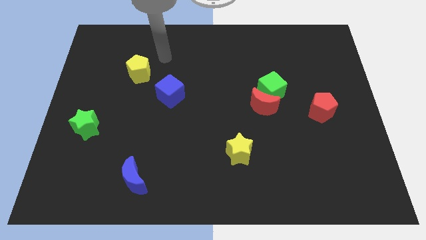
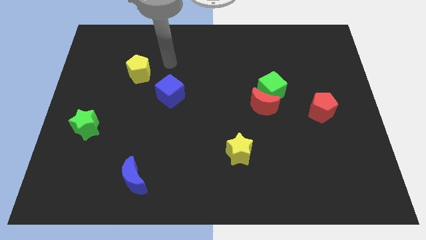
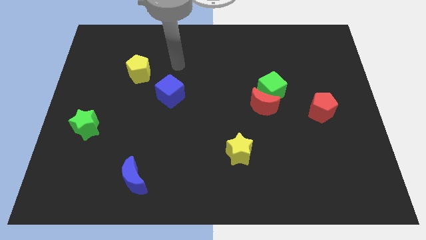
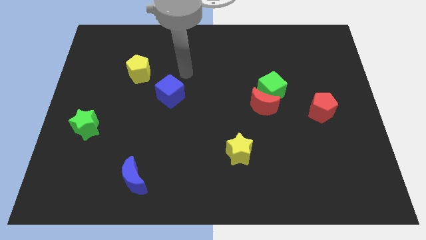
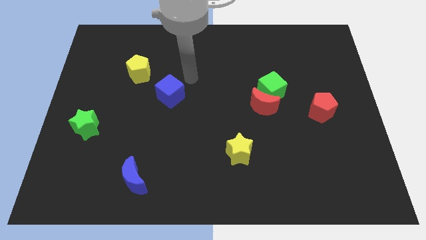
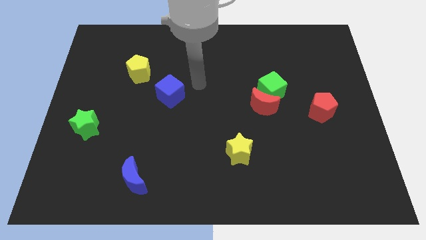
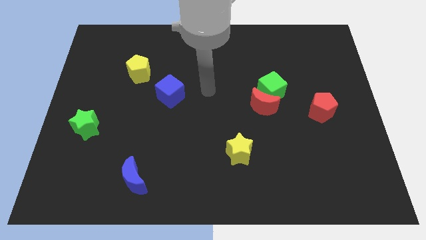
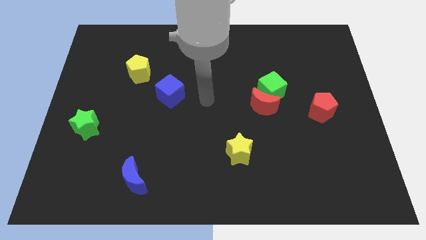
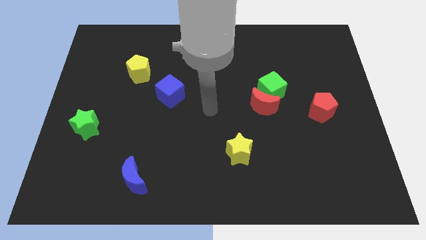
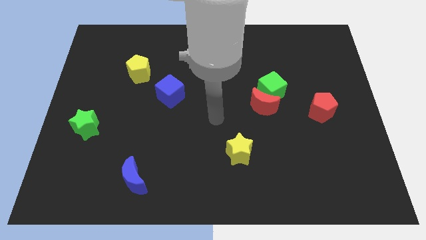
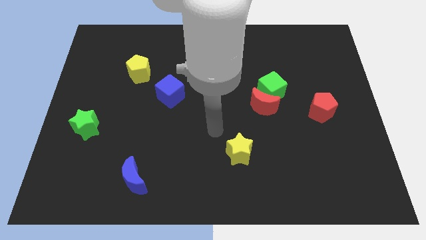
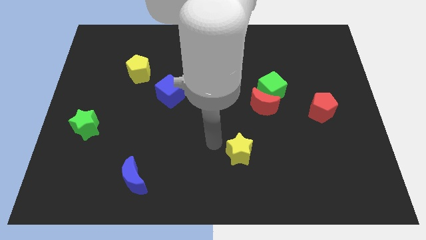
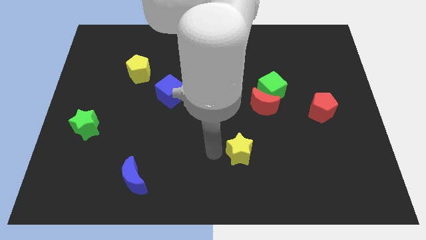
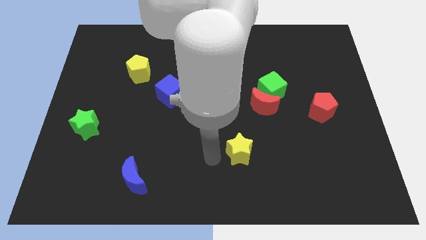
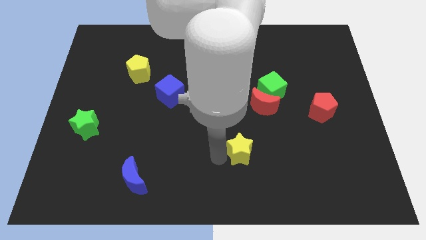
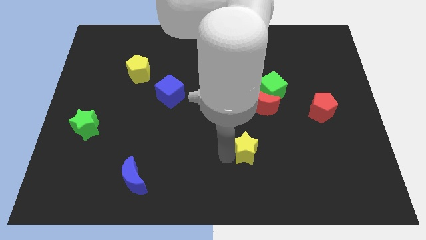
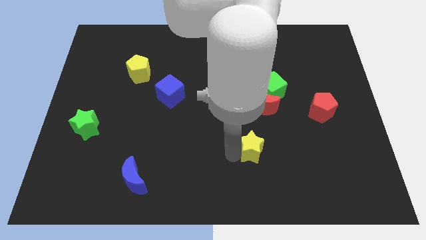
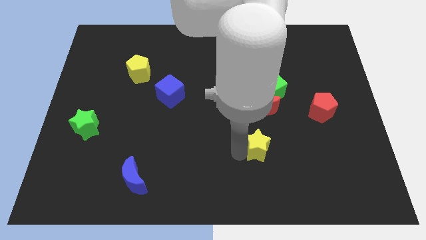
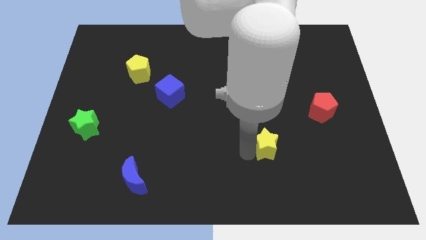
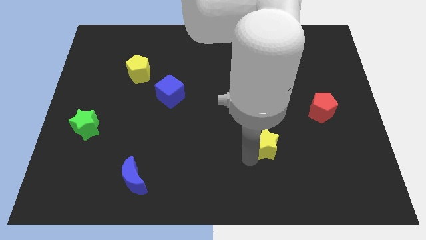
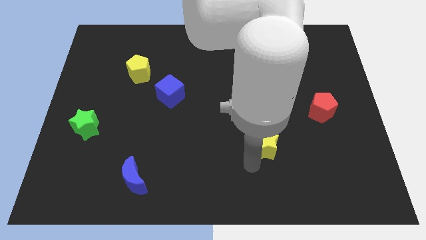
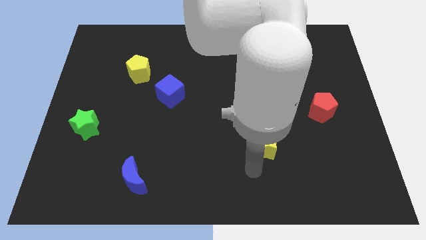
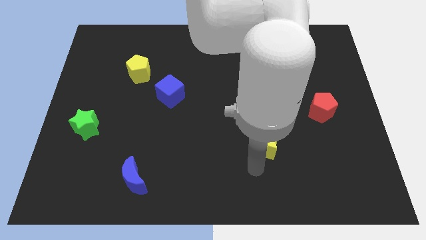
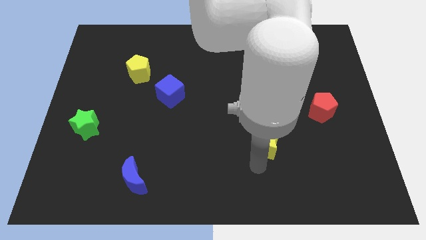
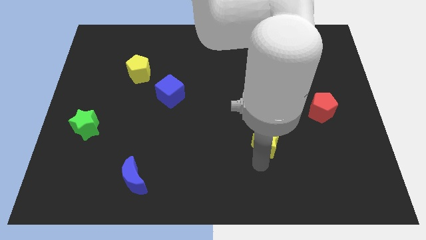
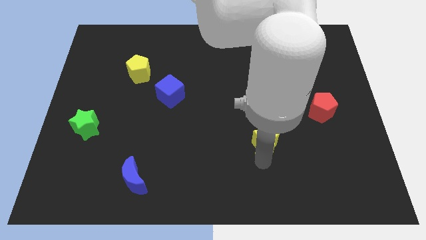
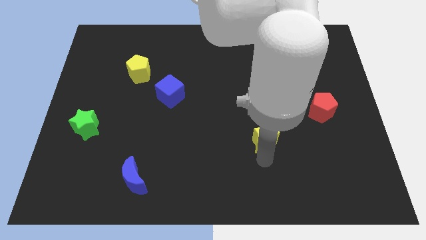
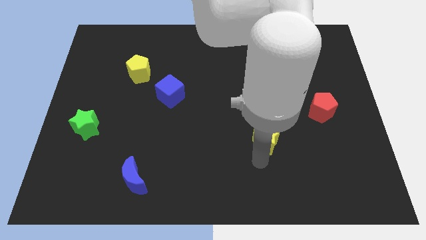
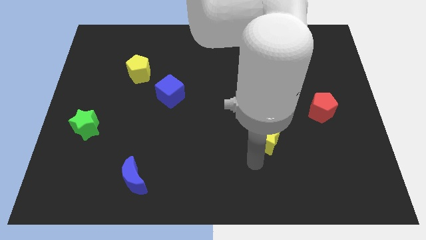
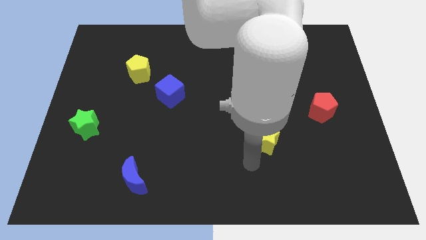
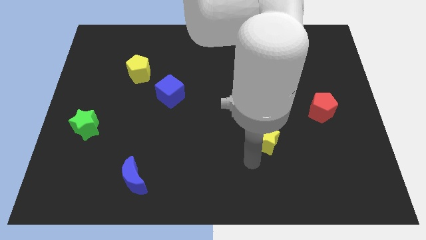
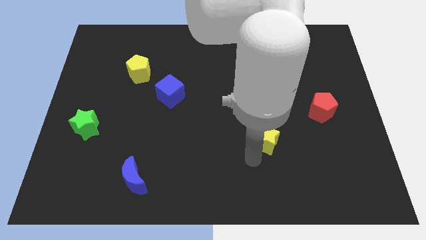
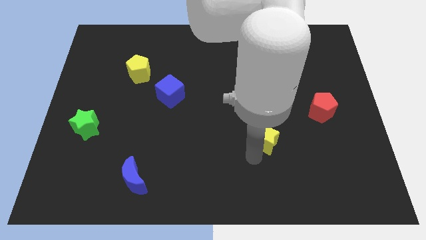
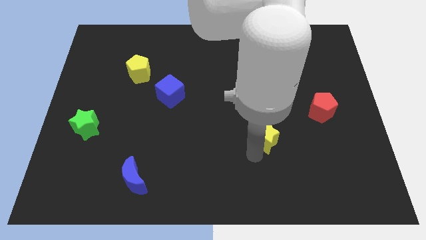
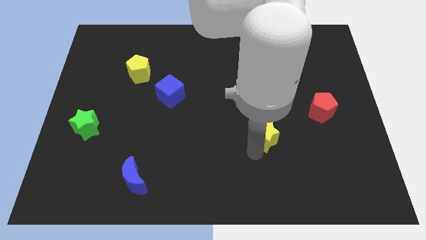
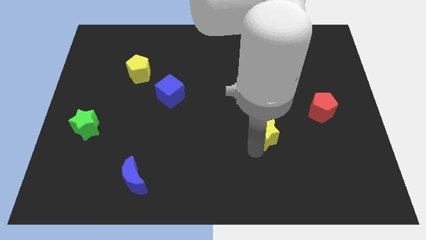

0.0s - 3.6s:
slightly push the yellow star diagonally upwards and to the right

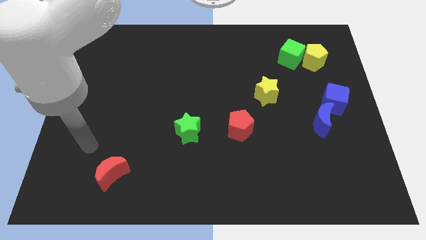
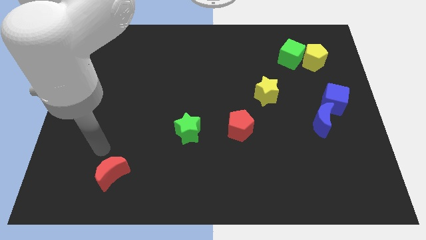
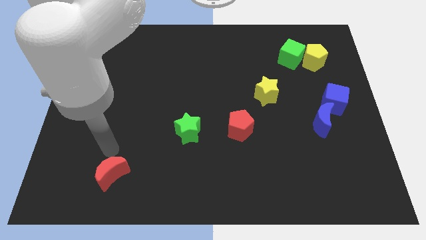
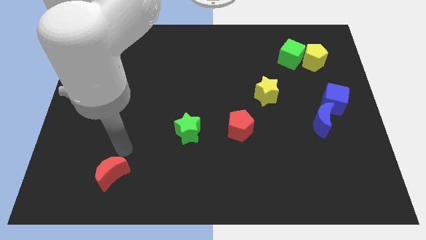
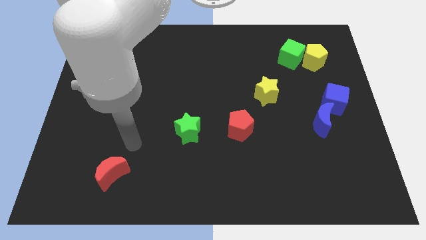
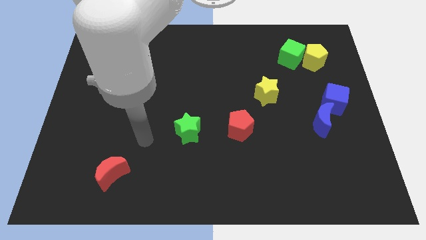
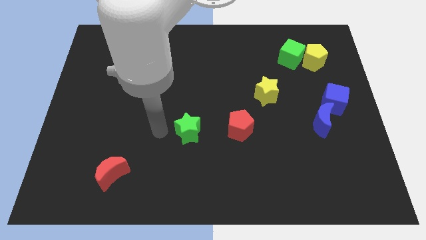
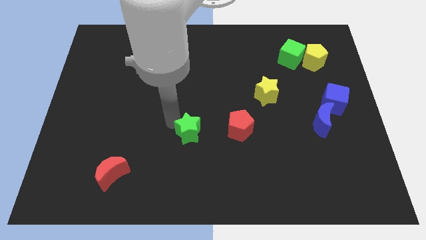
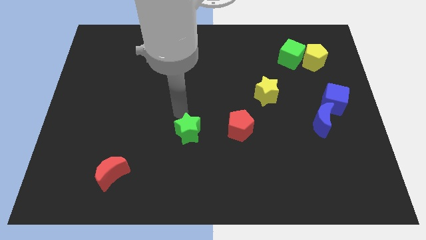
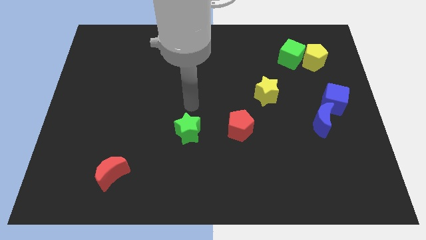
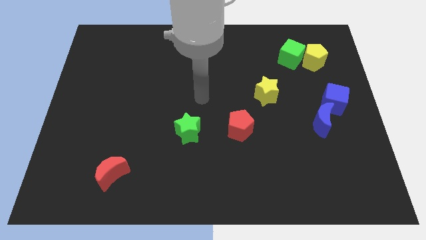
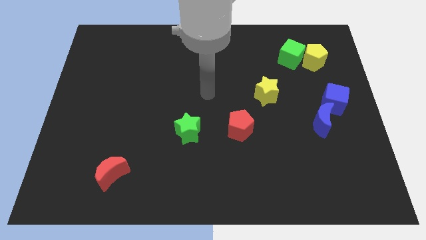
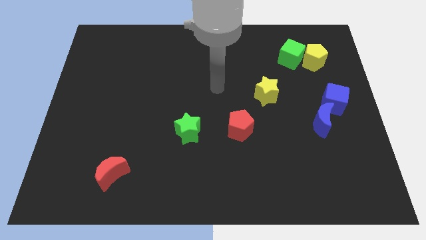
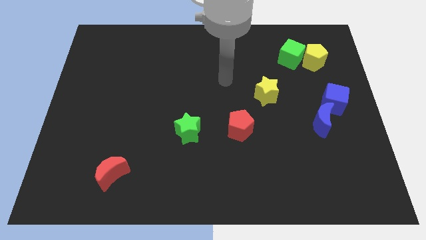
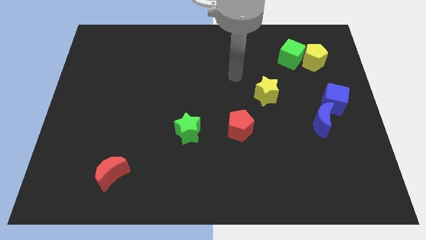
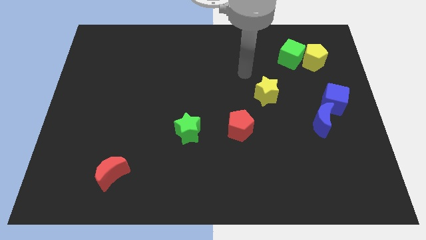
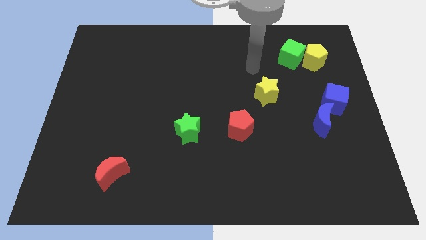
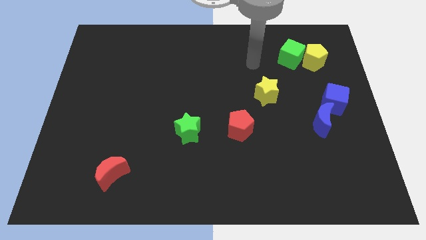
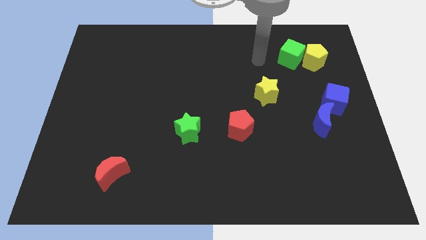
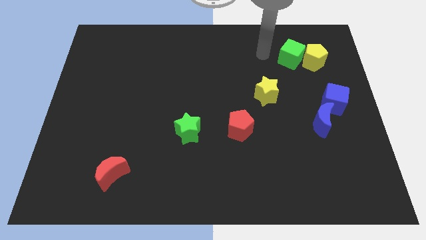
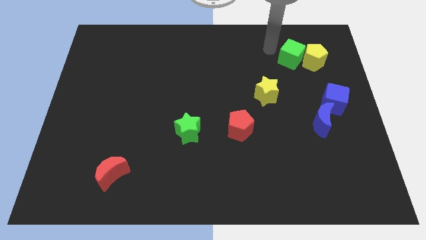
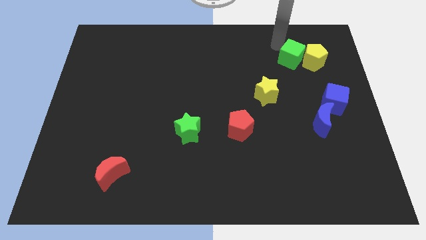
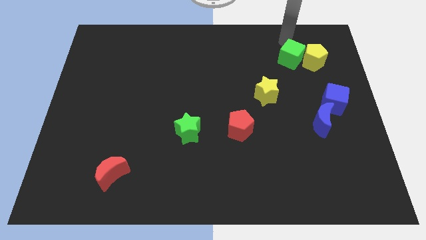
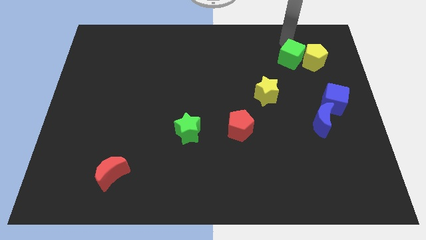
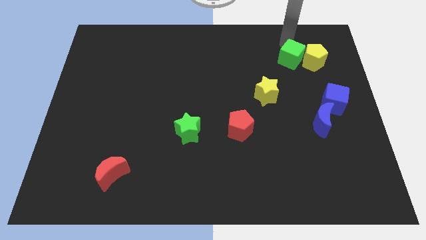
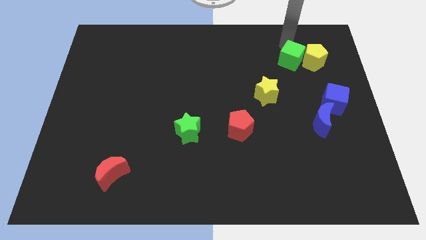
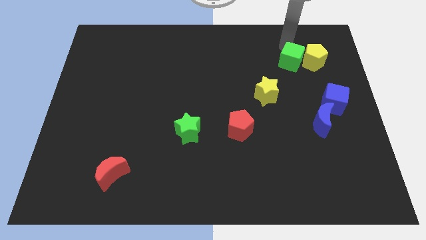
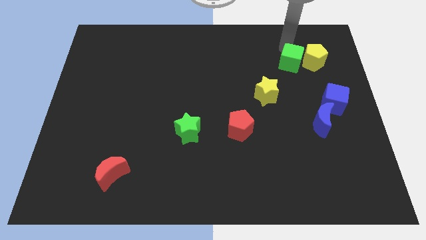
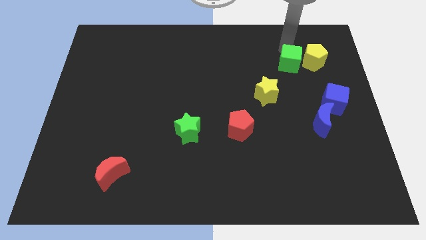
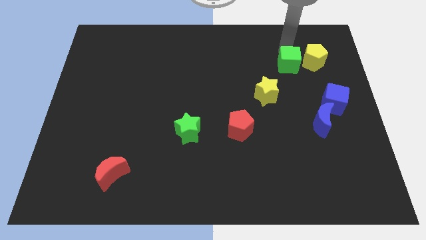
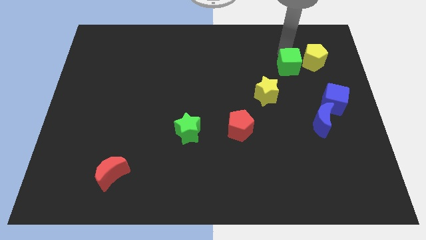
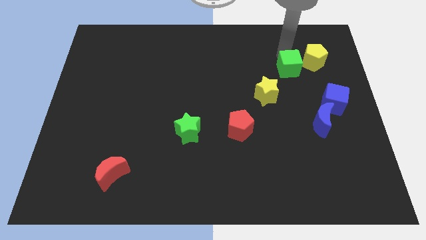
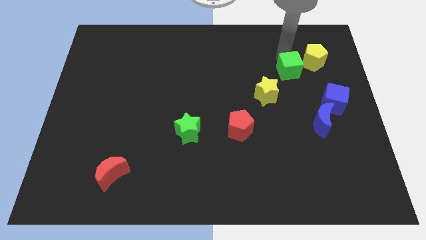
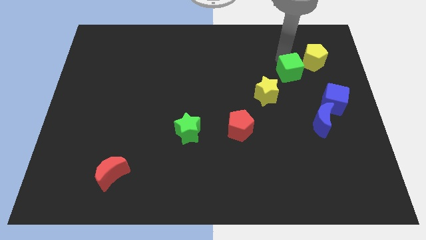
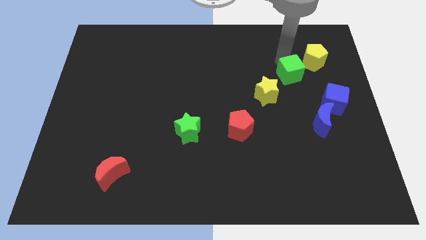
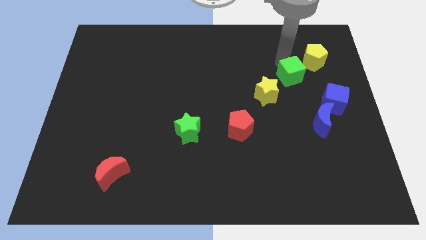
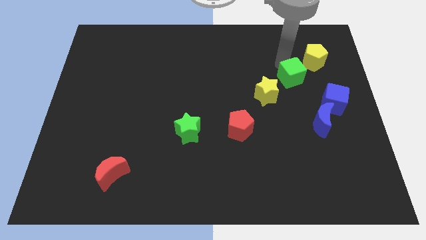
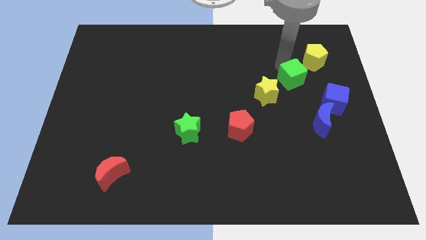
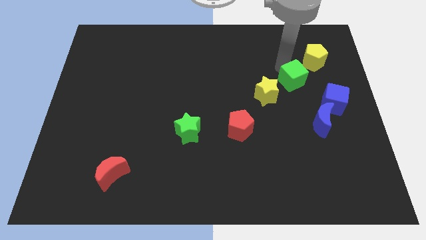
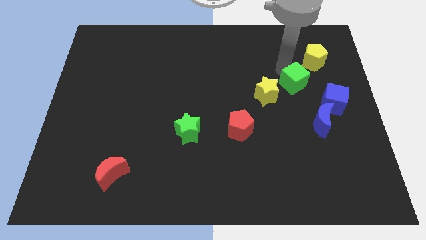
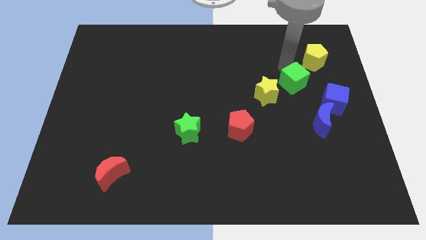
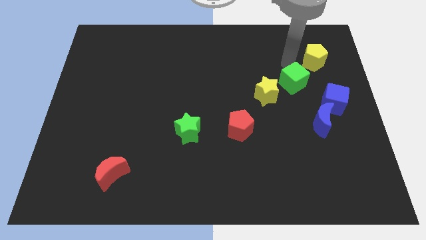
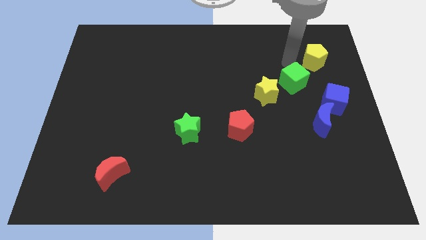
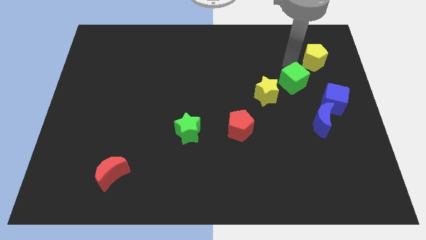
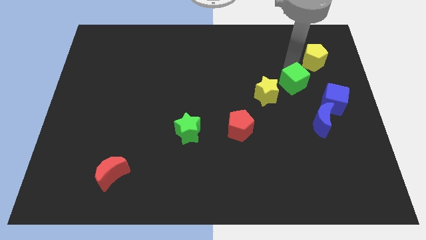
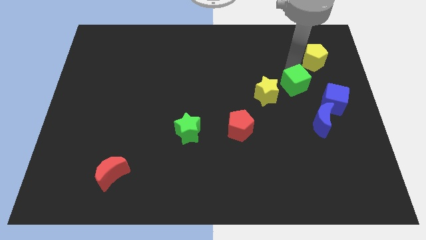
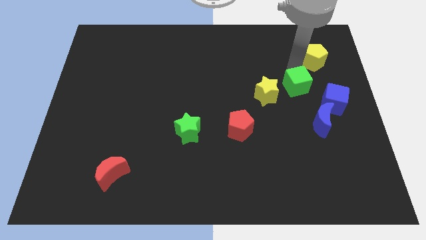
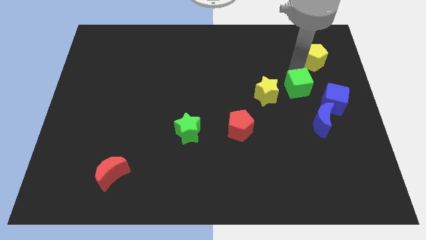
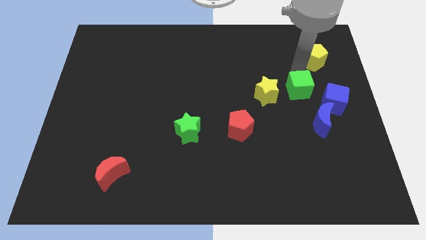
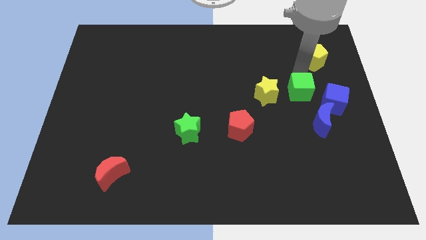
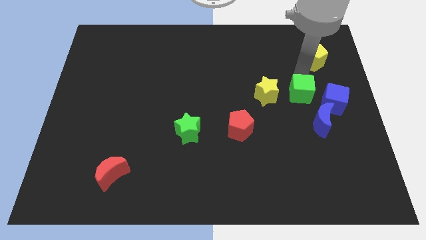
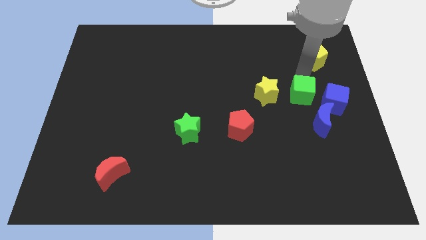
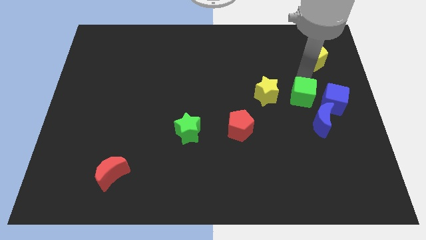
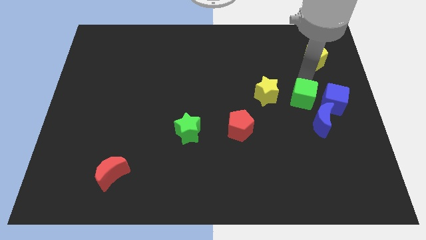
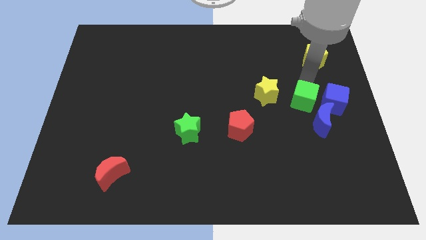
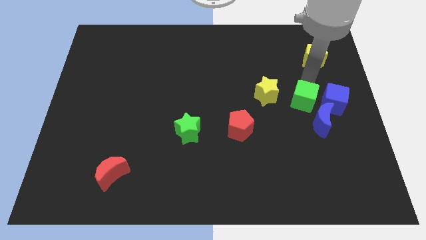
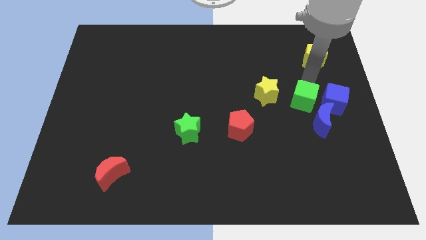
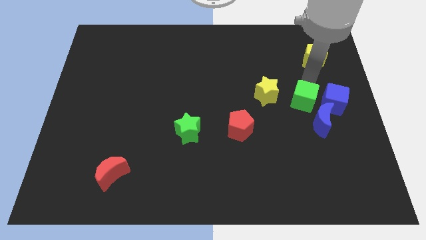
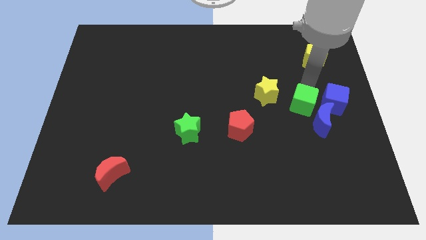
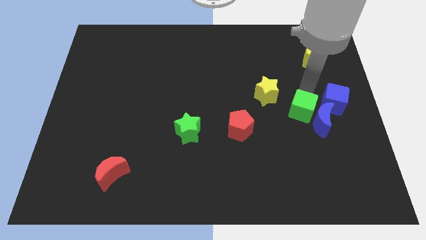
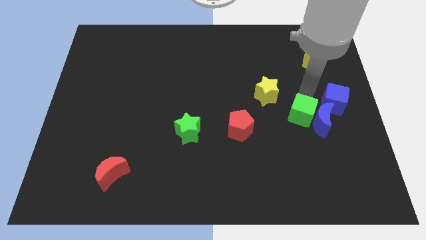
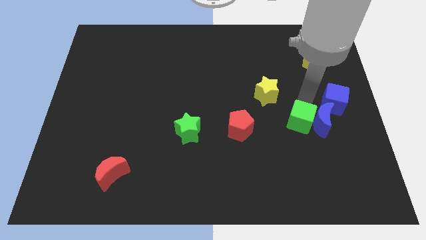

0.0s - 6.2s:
push the green cube down
